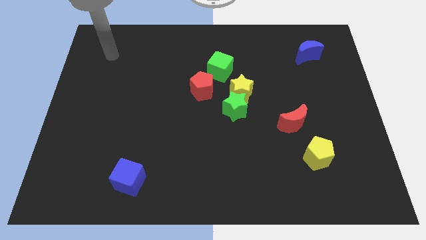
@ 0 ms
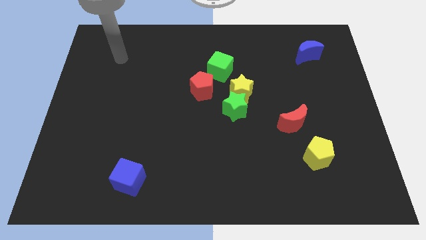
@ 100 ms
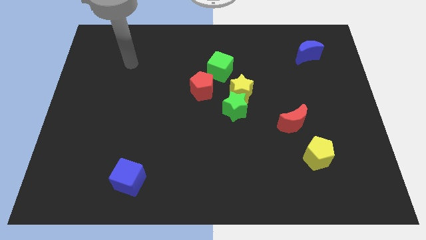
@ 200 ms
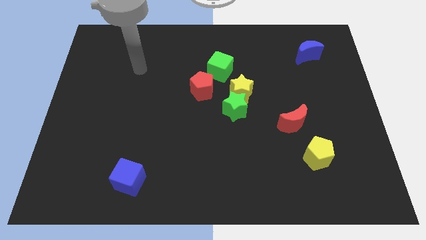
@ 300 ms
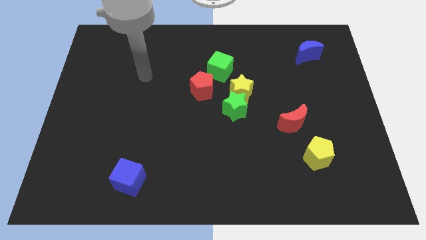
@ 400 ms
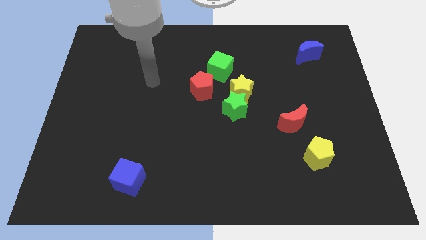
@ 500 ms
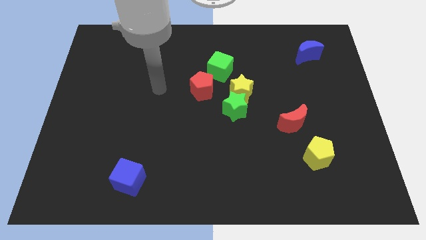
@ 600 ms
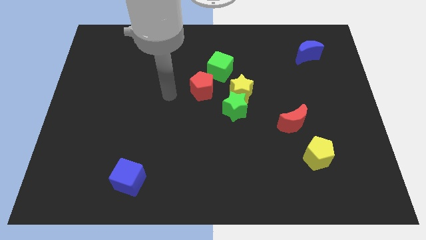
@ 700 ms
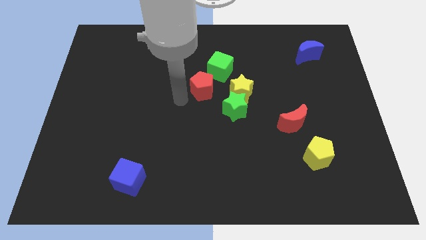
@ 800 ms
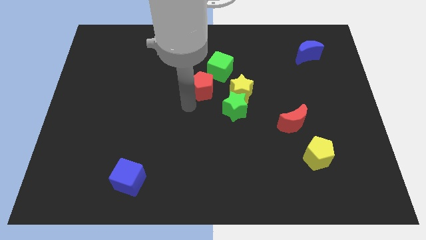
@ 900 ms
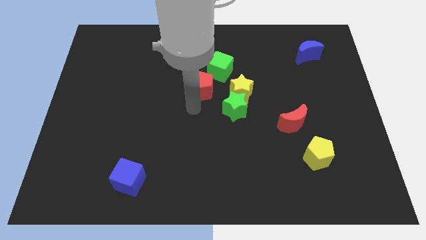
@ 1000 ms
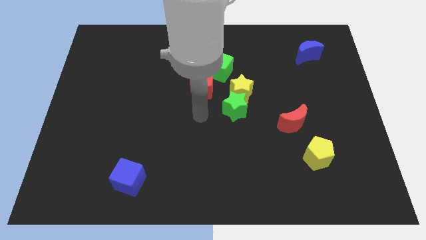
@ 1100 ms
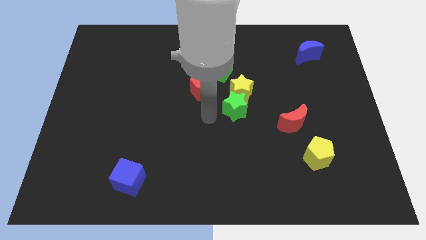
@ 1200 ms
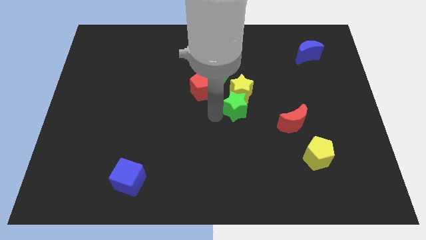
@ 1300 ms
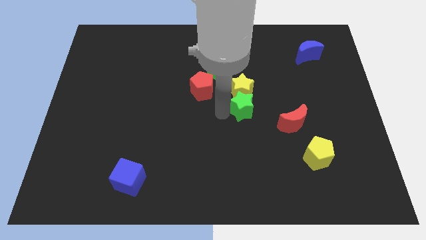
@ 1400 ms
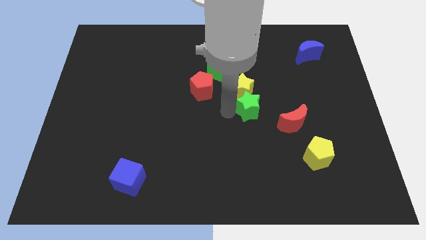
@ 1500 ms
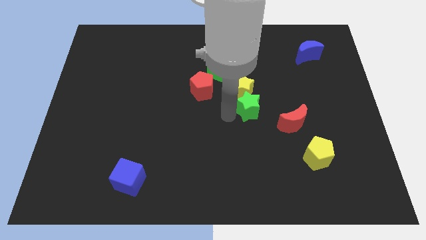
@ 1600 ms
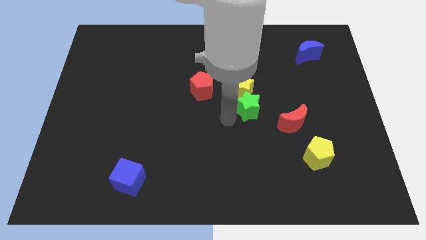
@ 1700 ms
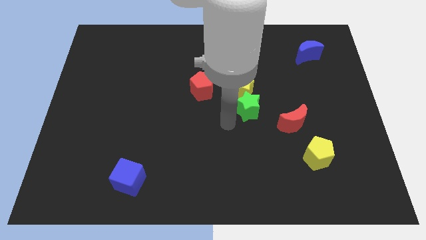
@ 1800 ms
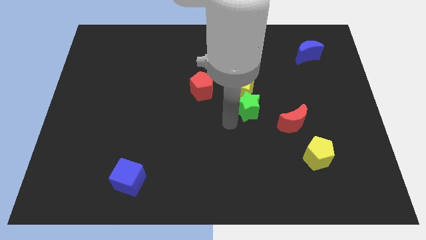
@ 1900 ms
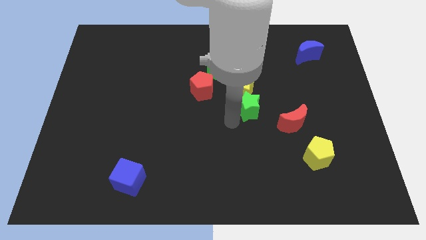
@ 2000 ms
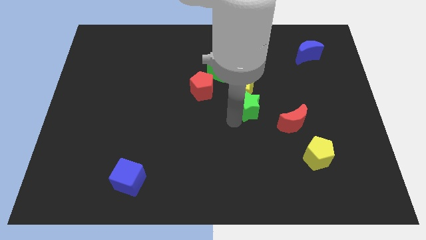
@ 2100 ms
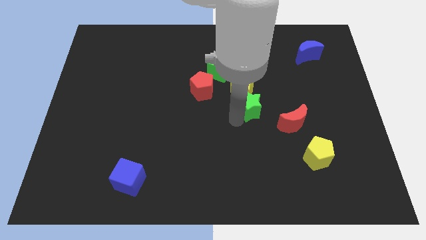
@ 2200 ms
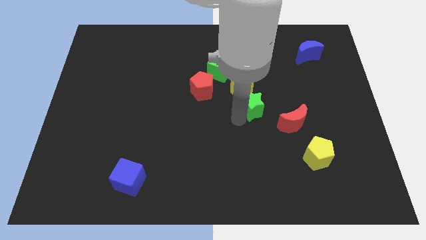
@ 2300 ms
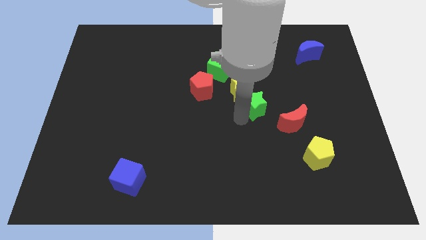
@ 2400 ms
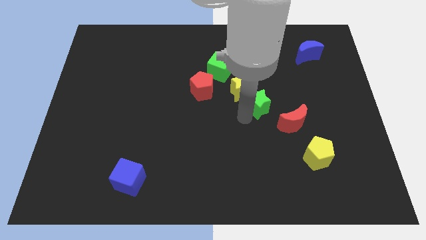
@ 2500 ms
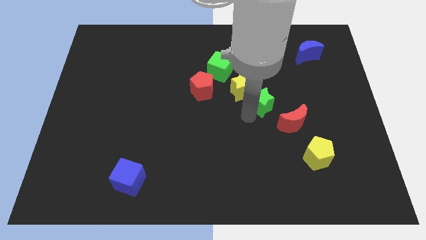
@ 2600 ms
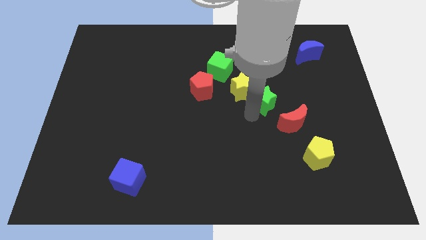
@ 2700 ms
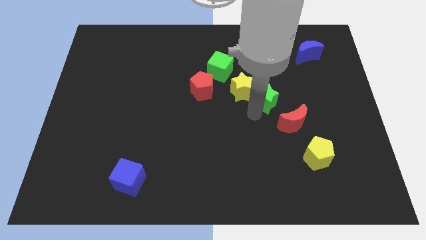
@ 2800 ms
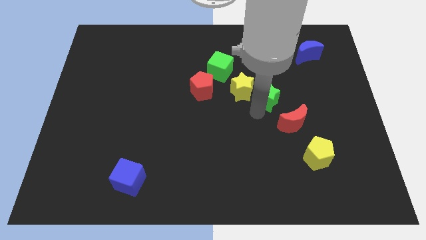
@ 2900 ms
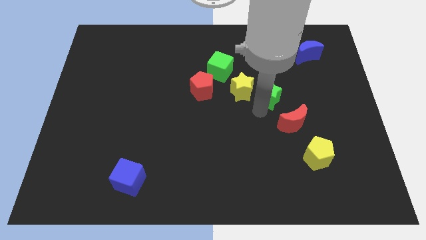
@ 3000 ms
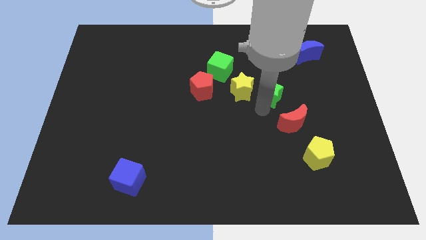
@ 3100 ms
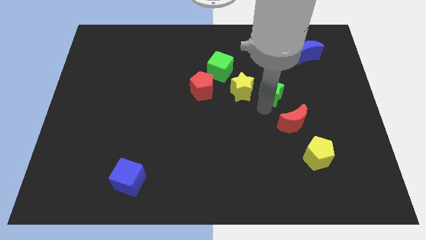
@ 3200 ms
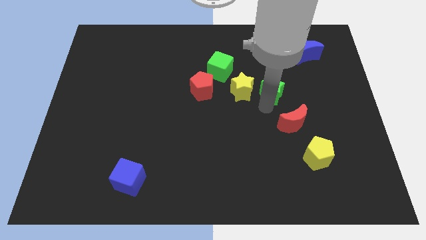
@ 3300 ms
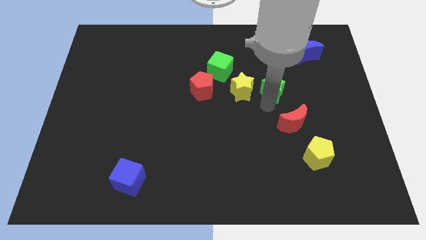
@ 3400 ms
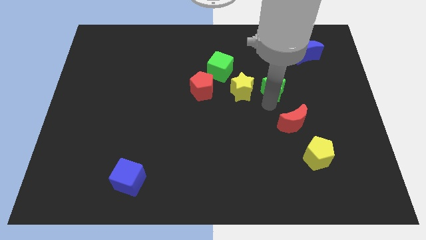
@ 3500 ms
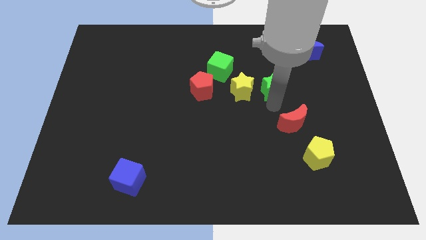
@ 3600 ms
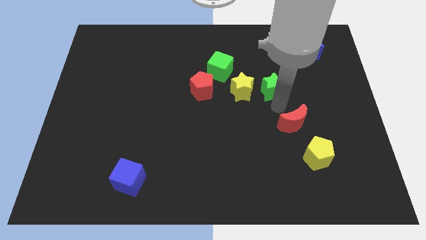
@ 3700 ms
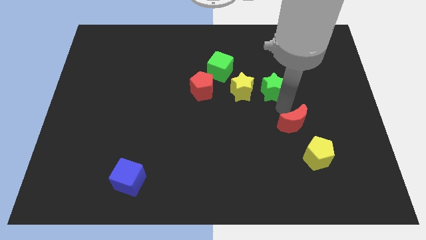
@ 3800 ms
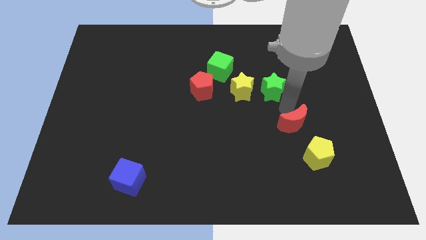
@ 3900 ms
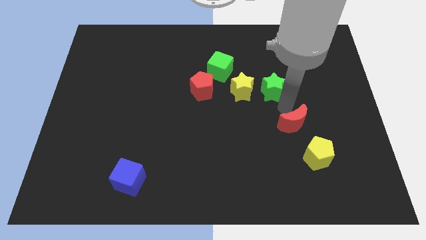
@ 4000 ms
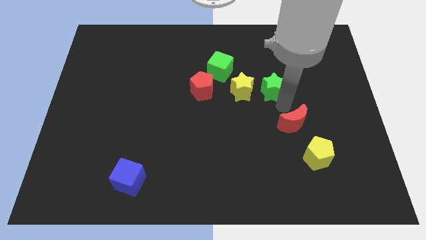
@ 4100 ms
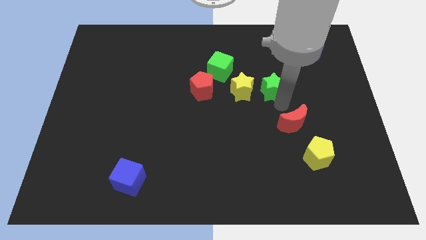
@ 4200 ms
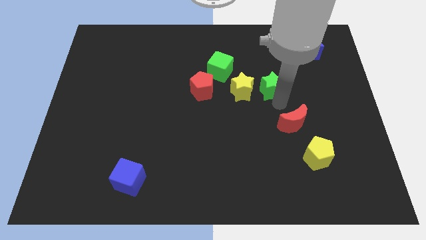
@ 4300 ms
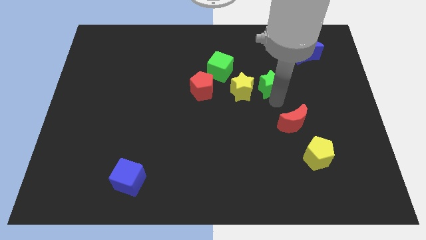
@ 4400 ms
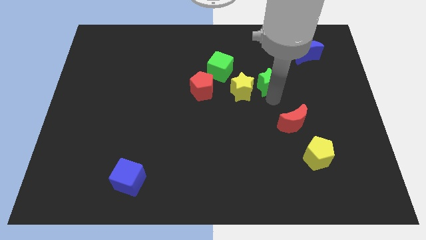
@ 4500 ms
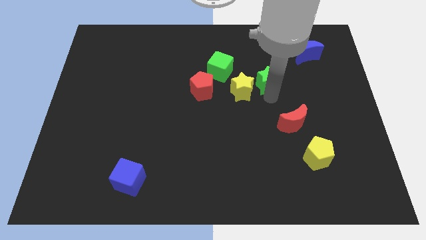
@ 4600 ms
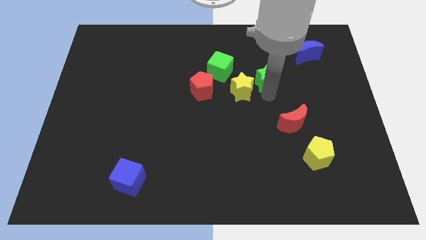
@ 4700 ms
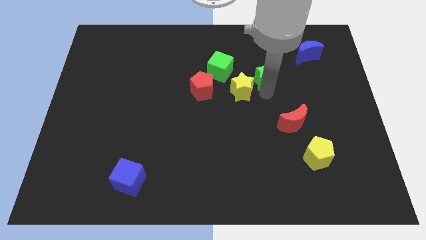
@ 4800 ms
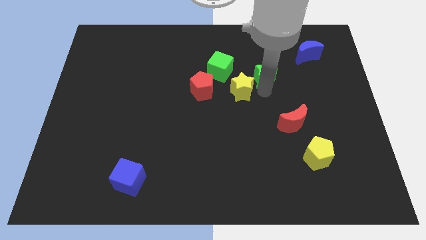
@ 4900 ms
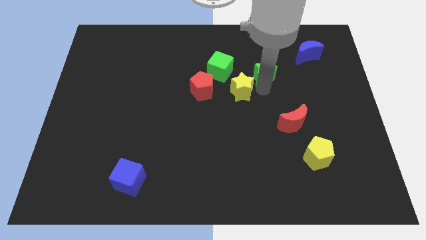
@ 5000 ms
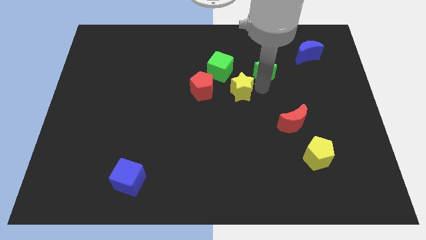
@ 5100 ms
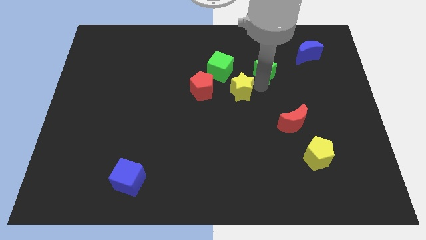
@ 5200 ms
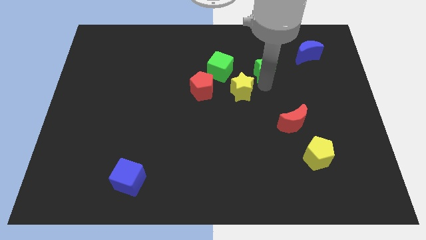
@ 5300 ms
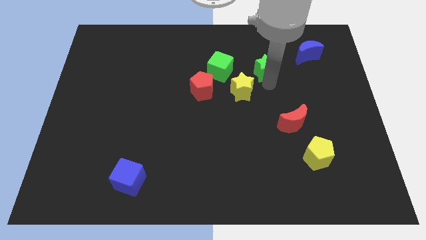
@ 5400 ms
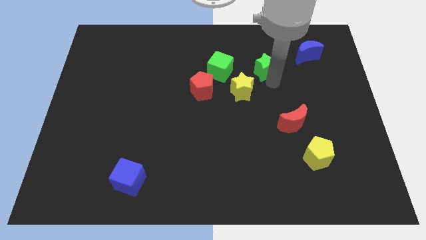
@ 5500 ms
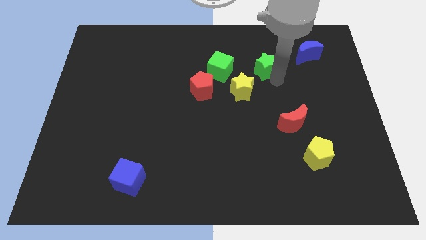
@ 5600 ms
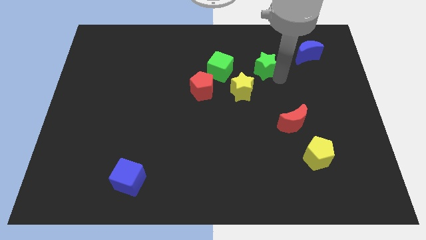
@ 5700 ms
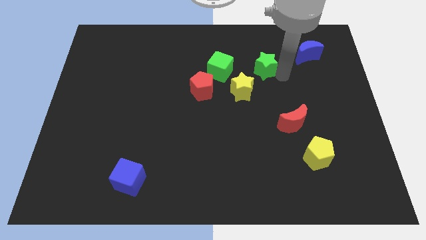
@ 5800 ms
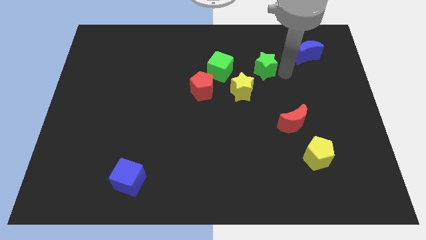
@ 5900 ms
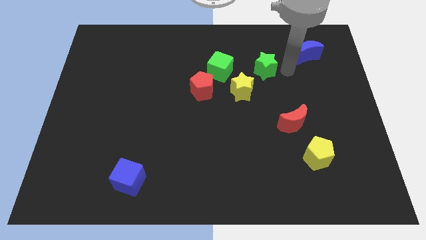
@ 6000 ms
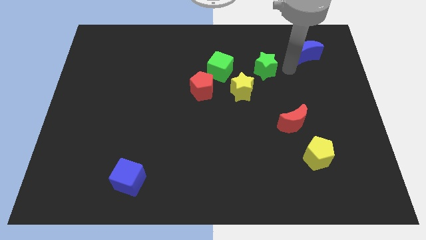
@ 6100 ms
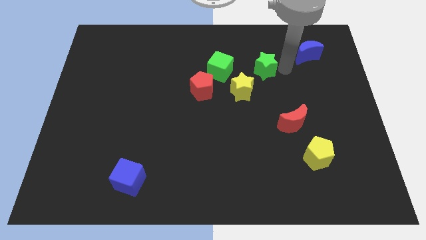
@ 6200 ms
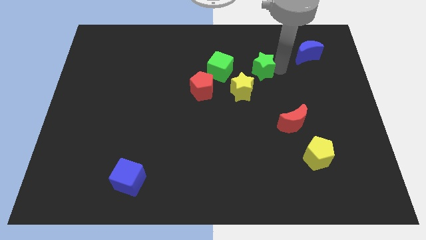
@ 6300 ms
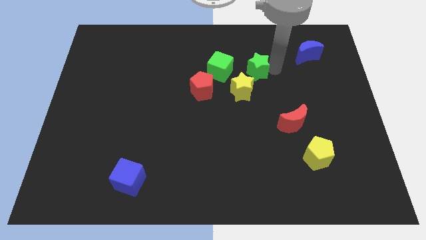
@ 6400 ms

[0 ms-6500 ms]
slide the green star above the yellow star

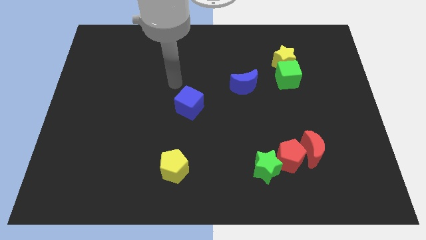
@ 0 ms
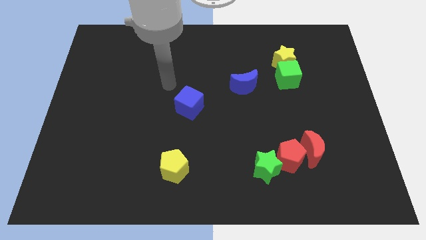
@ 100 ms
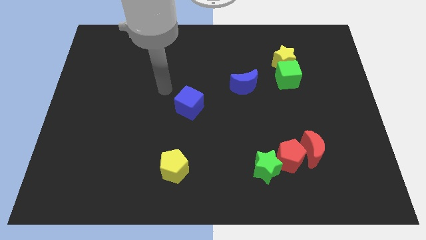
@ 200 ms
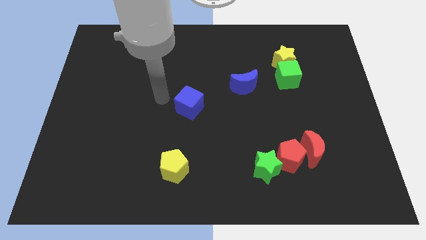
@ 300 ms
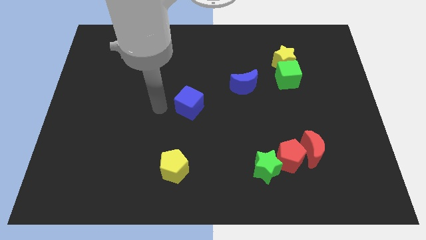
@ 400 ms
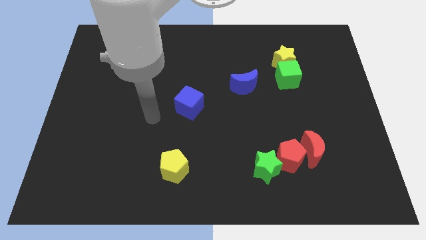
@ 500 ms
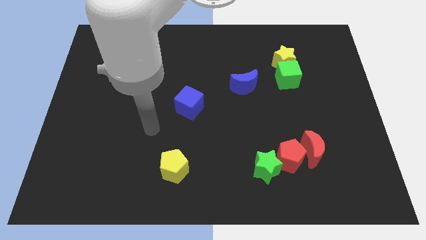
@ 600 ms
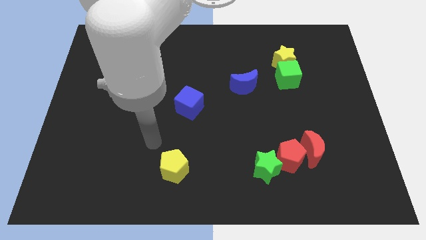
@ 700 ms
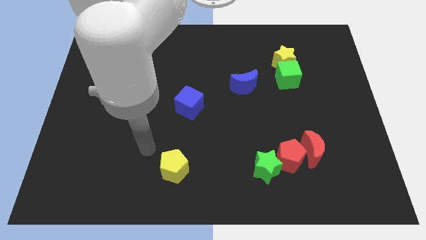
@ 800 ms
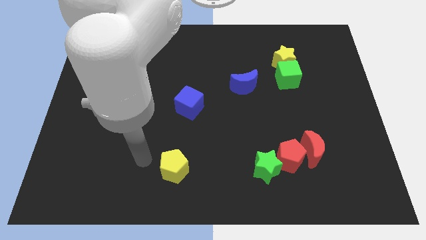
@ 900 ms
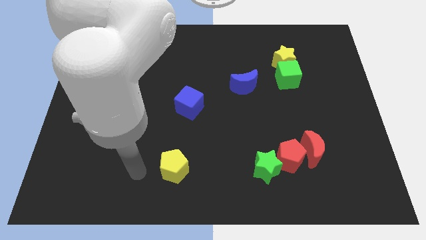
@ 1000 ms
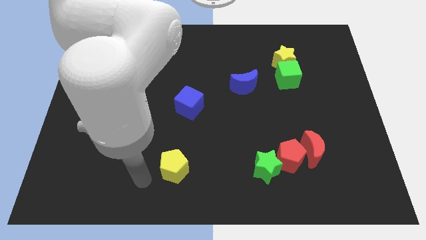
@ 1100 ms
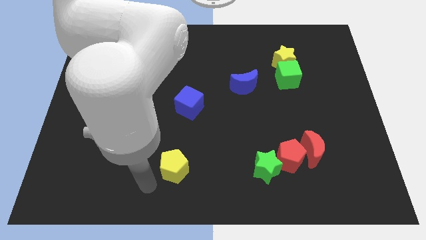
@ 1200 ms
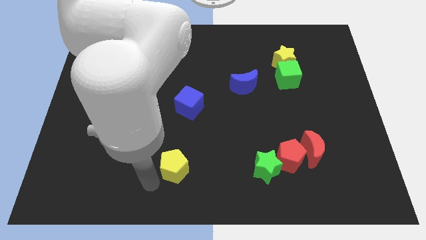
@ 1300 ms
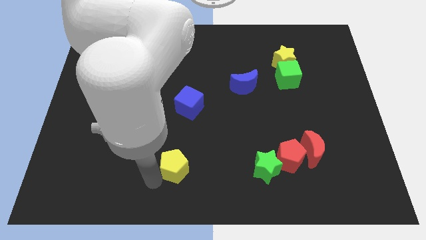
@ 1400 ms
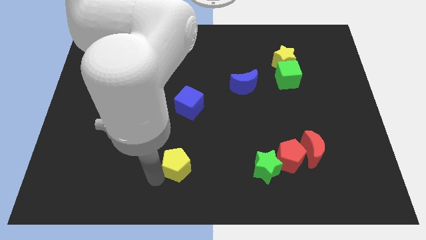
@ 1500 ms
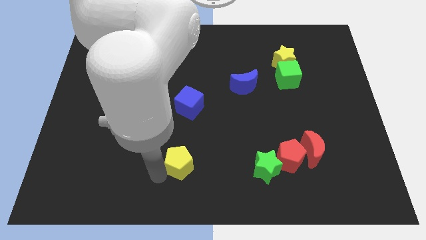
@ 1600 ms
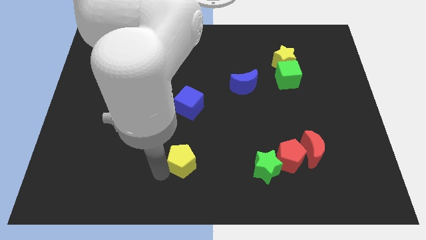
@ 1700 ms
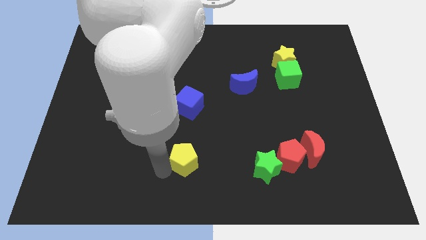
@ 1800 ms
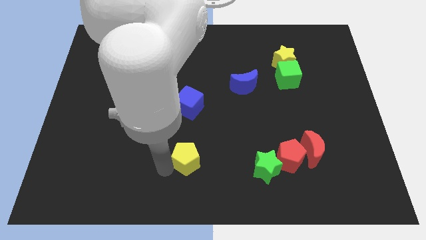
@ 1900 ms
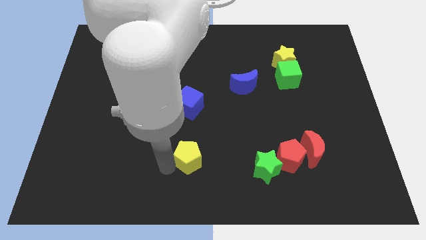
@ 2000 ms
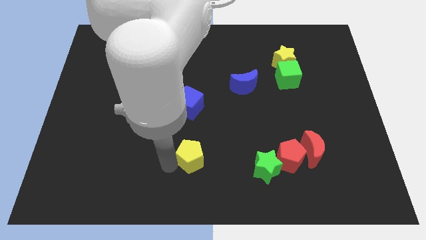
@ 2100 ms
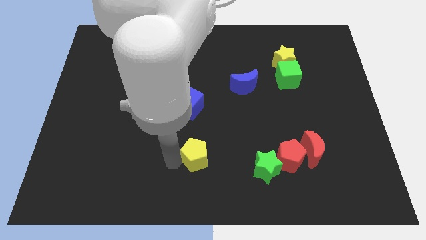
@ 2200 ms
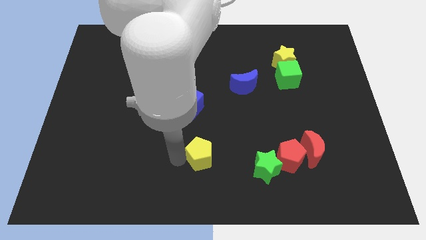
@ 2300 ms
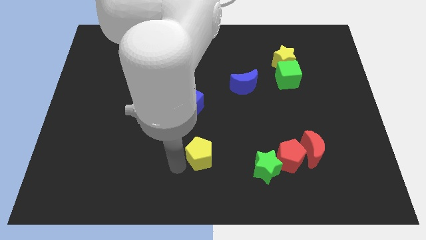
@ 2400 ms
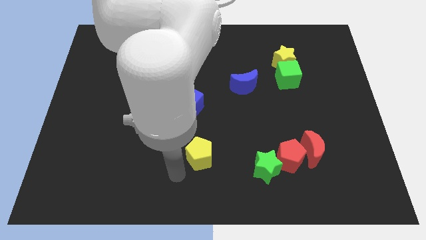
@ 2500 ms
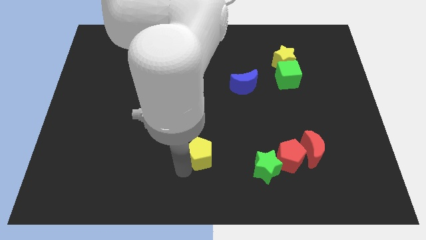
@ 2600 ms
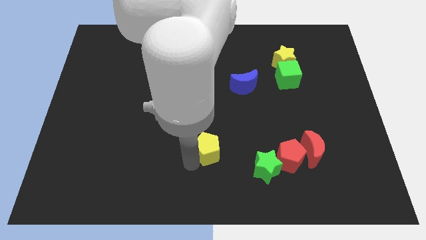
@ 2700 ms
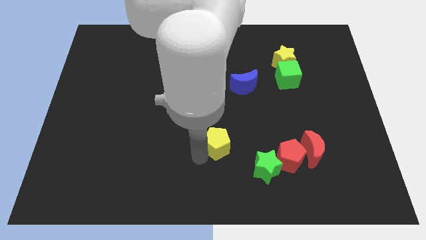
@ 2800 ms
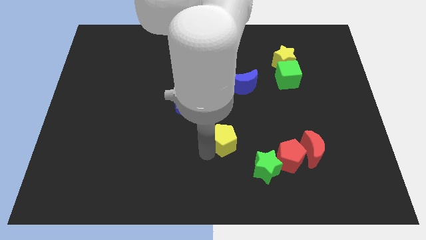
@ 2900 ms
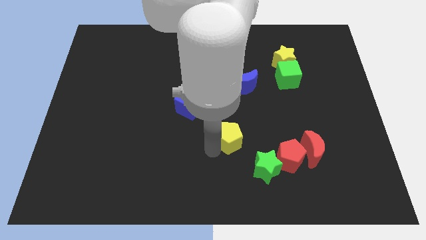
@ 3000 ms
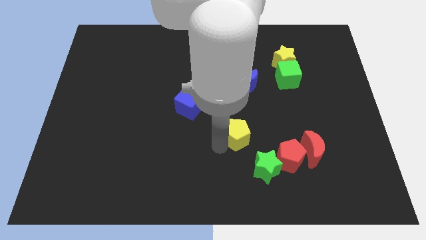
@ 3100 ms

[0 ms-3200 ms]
put the yellow pentagon to the bottom side of the blue moon
